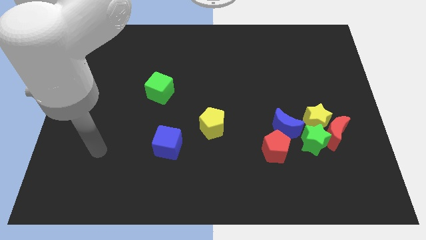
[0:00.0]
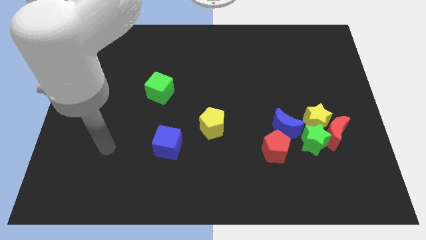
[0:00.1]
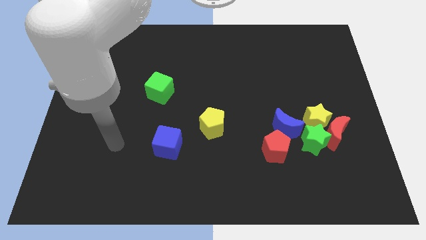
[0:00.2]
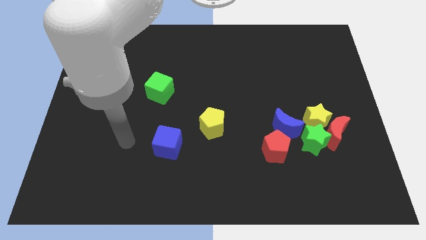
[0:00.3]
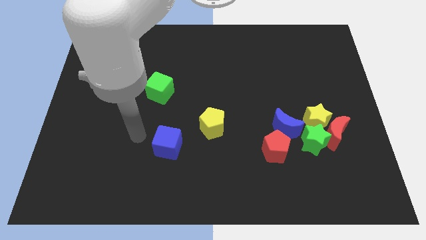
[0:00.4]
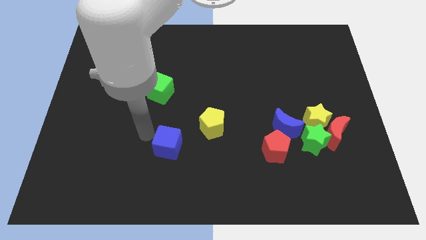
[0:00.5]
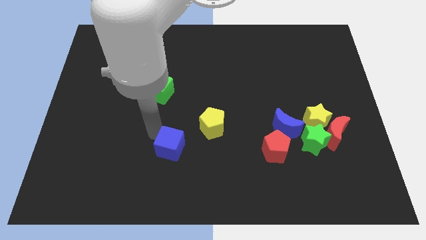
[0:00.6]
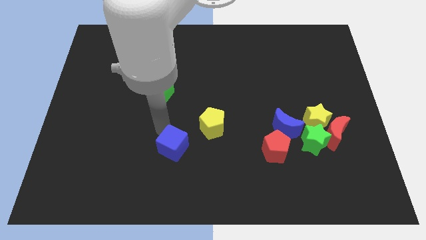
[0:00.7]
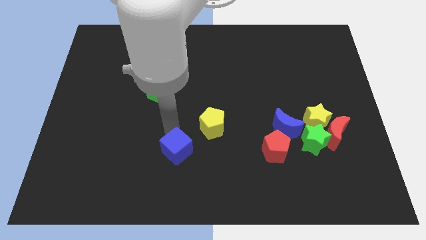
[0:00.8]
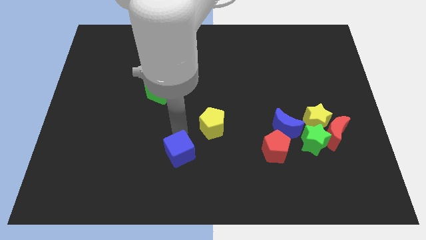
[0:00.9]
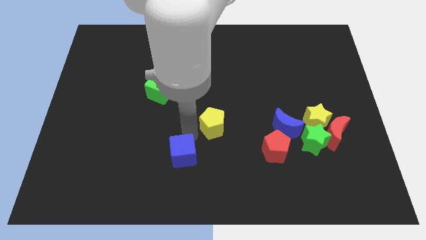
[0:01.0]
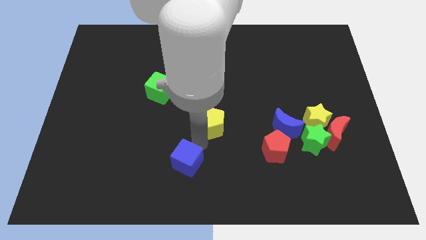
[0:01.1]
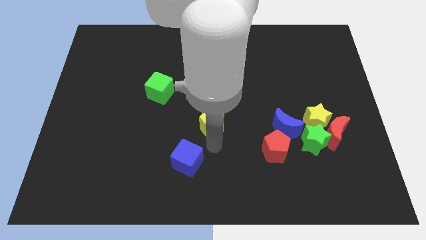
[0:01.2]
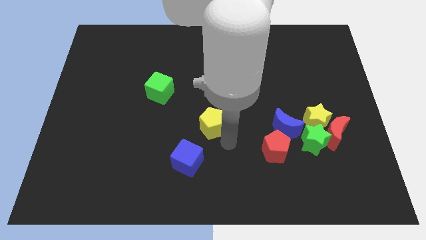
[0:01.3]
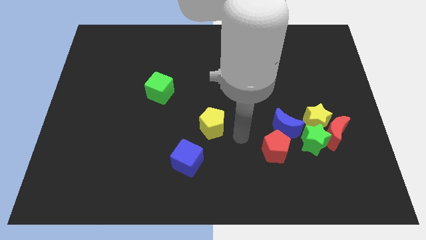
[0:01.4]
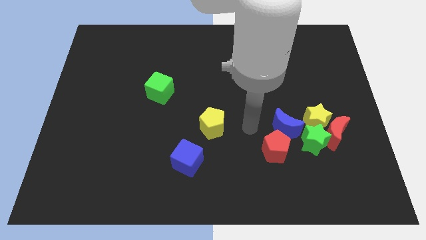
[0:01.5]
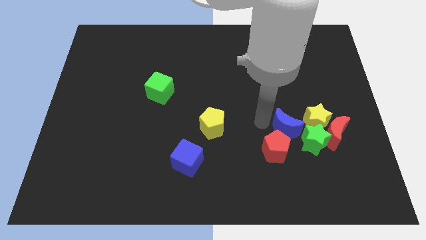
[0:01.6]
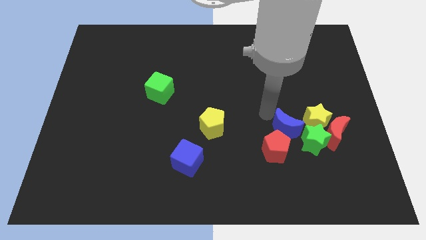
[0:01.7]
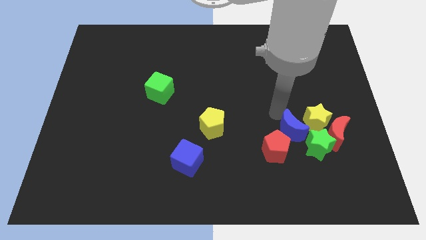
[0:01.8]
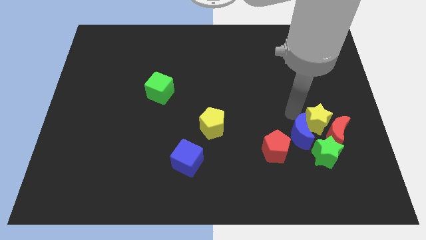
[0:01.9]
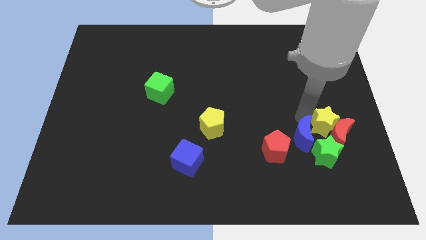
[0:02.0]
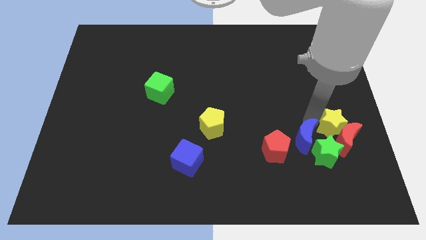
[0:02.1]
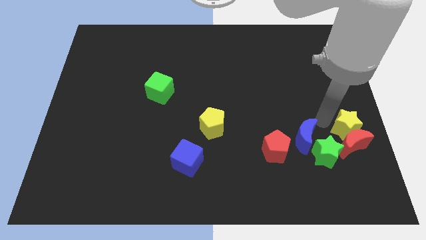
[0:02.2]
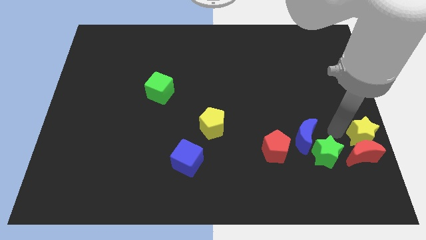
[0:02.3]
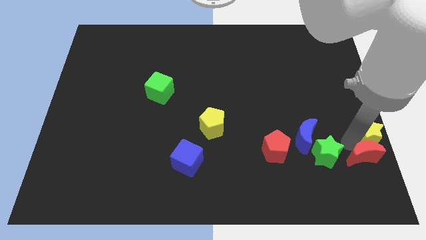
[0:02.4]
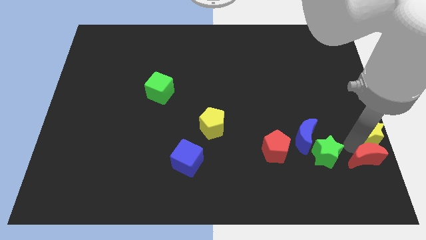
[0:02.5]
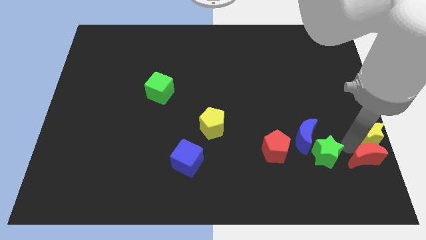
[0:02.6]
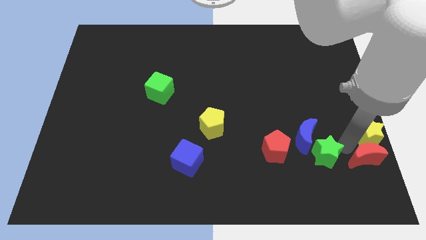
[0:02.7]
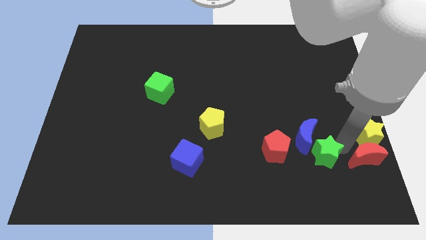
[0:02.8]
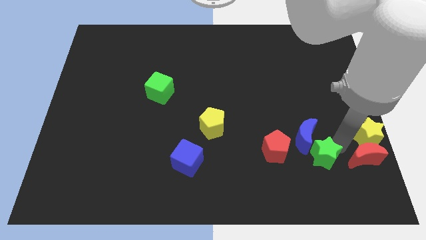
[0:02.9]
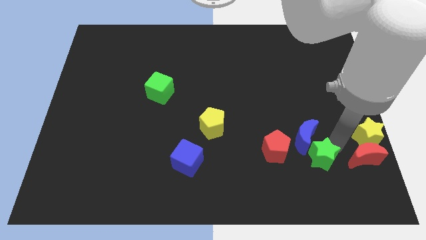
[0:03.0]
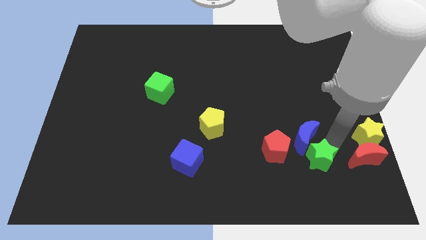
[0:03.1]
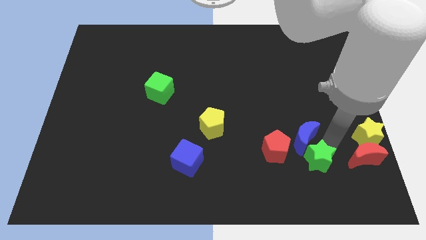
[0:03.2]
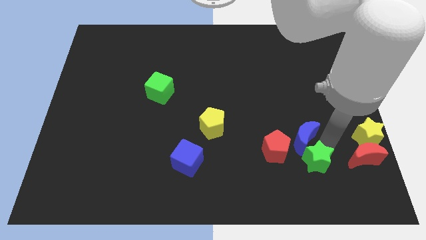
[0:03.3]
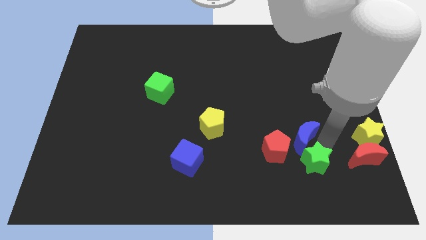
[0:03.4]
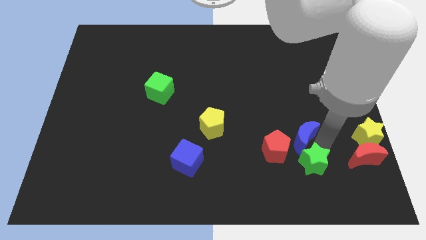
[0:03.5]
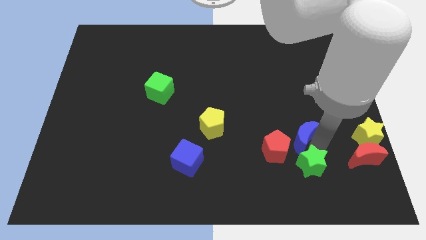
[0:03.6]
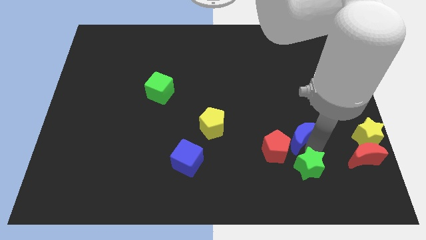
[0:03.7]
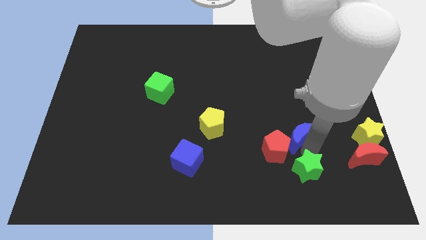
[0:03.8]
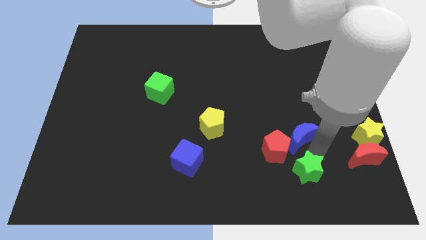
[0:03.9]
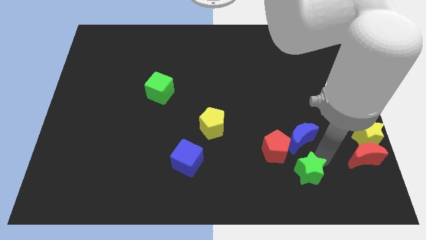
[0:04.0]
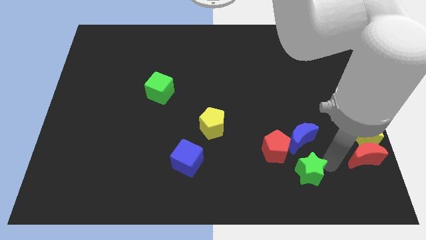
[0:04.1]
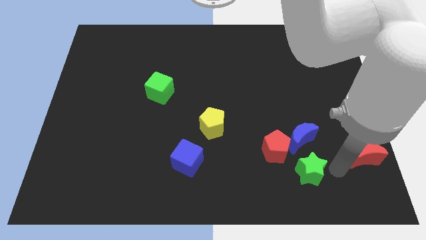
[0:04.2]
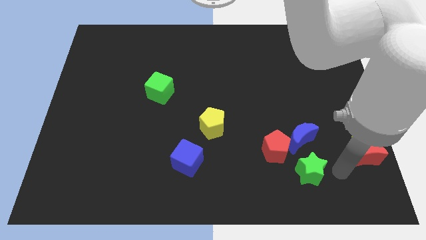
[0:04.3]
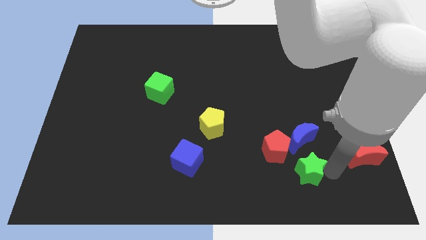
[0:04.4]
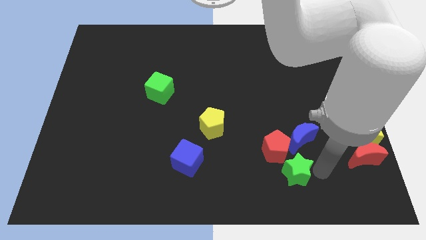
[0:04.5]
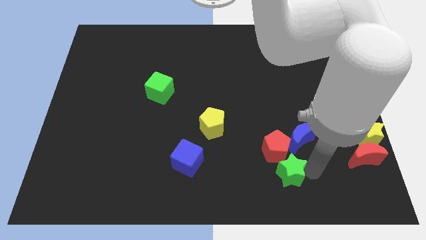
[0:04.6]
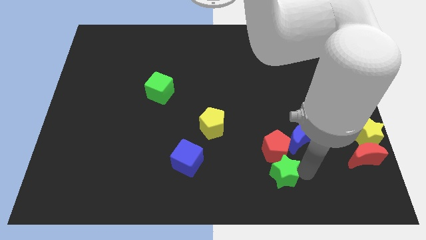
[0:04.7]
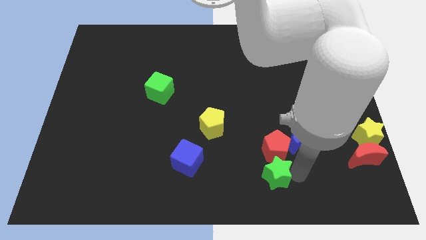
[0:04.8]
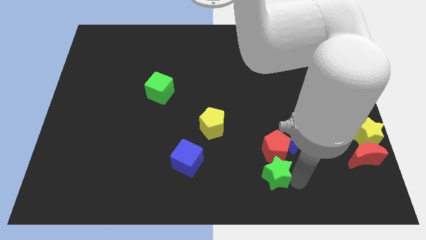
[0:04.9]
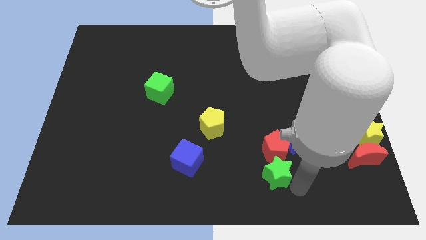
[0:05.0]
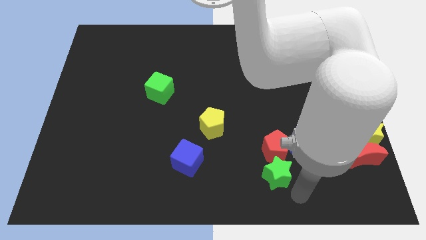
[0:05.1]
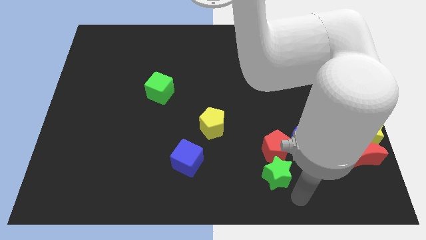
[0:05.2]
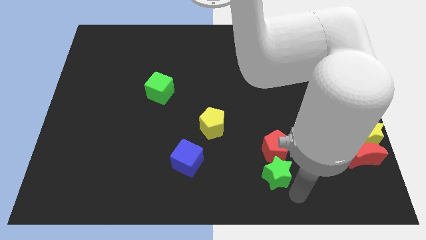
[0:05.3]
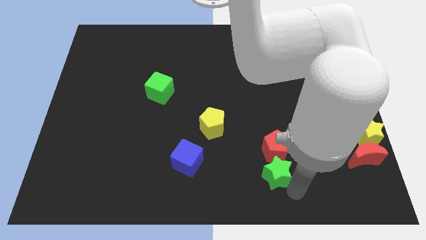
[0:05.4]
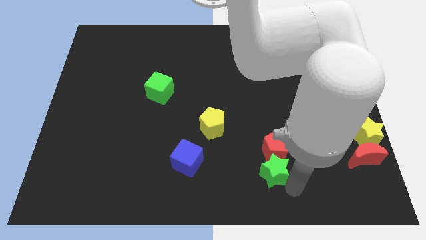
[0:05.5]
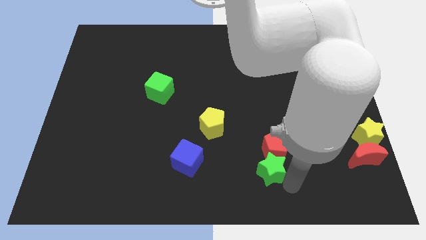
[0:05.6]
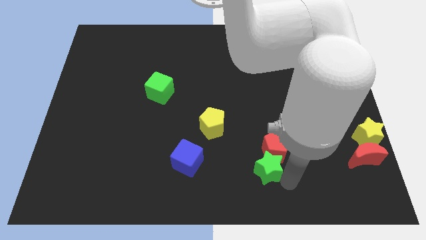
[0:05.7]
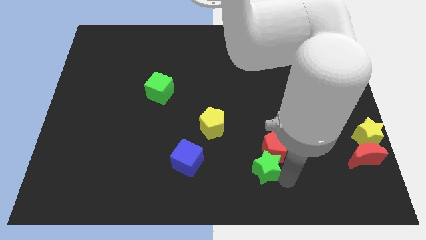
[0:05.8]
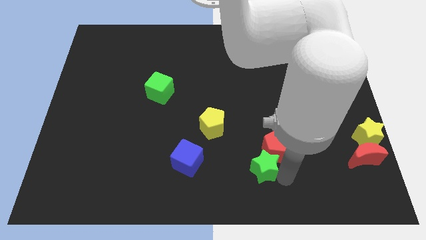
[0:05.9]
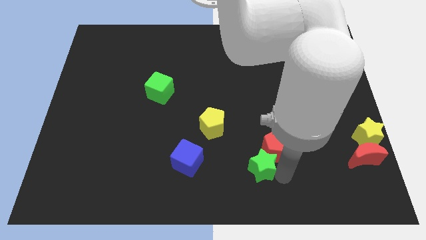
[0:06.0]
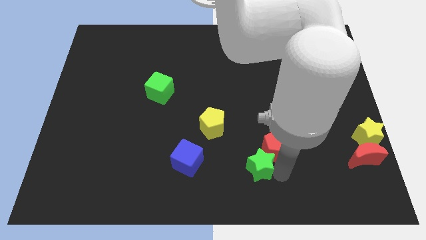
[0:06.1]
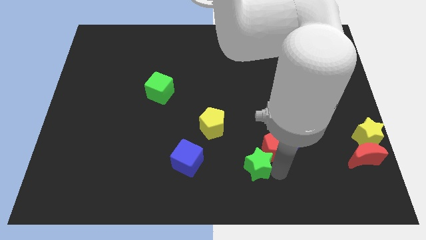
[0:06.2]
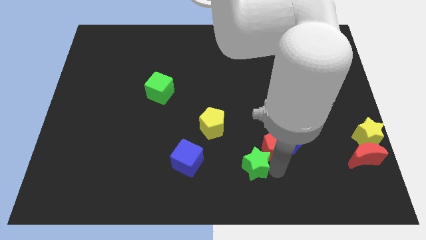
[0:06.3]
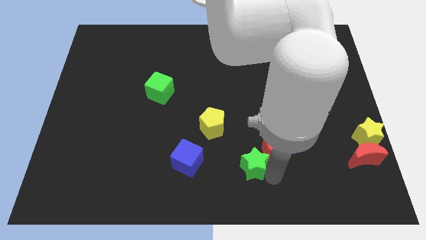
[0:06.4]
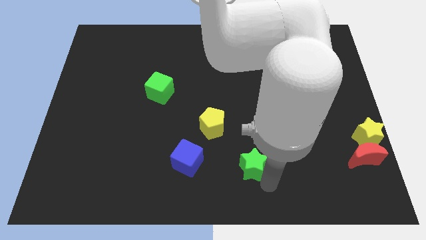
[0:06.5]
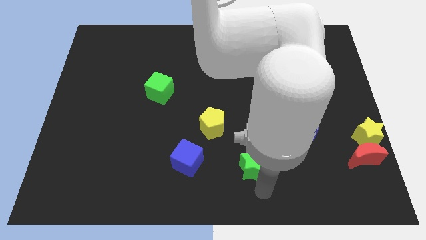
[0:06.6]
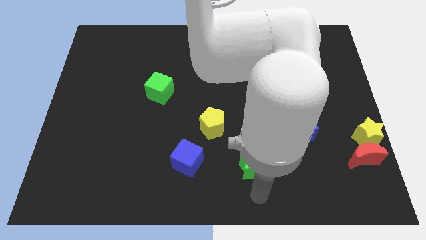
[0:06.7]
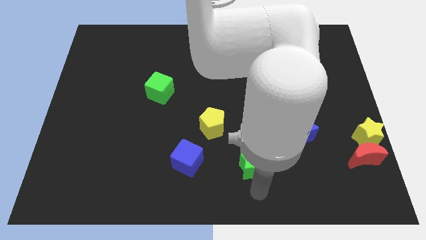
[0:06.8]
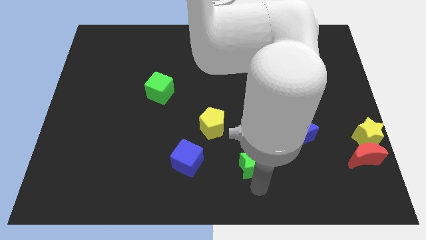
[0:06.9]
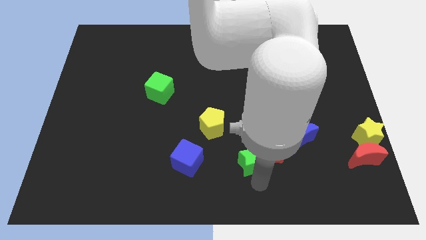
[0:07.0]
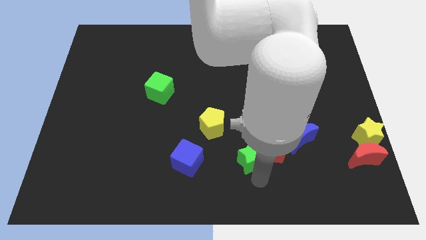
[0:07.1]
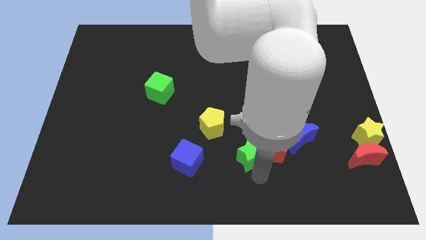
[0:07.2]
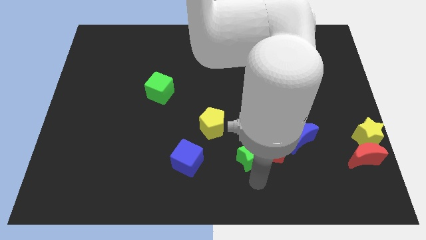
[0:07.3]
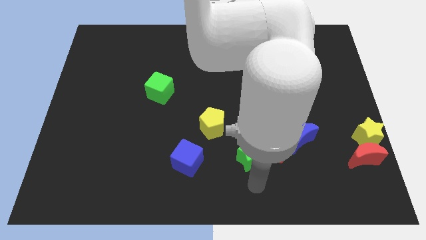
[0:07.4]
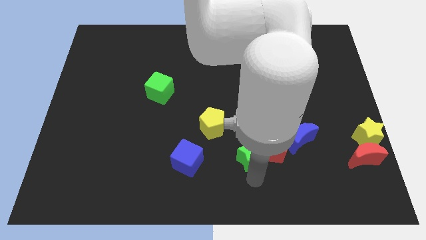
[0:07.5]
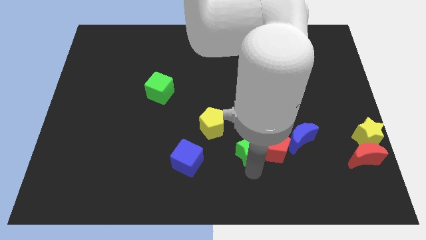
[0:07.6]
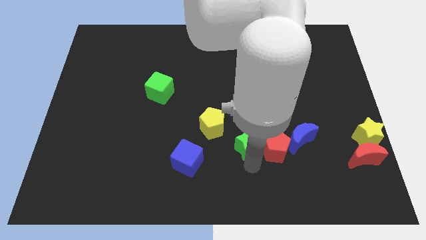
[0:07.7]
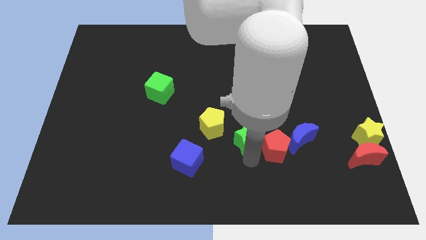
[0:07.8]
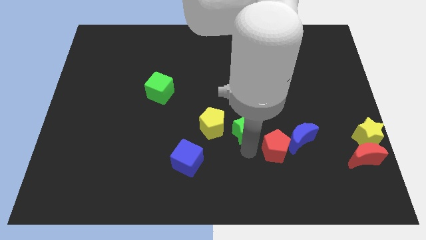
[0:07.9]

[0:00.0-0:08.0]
slightly move the green star up and left diagonally
